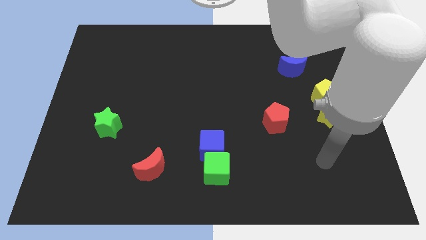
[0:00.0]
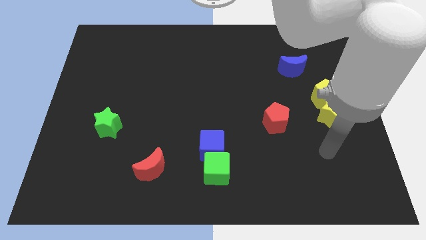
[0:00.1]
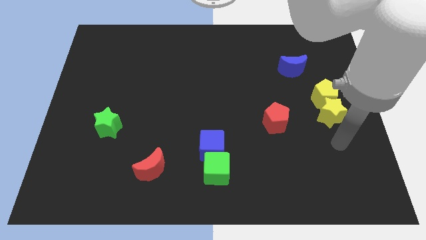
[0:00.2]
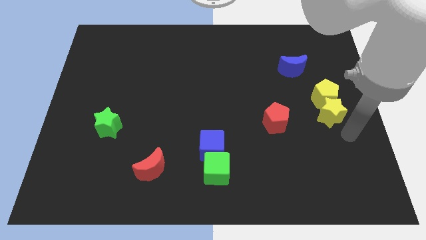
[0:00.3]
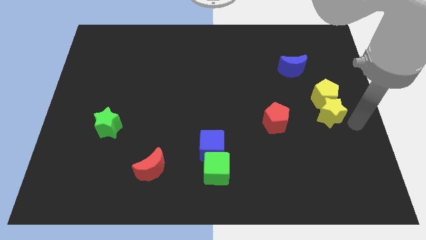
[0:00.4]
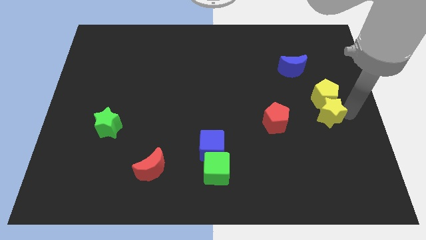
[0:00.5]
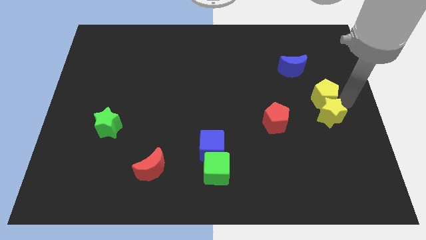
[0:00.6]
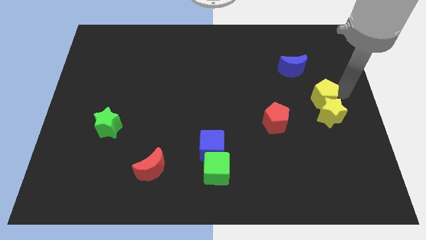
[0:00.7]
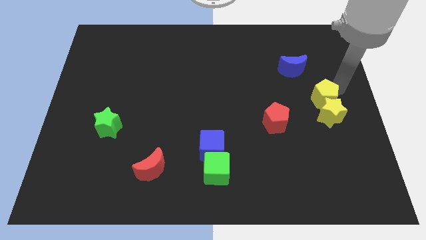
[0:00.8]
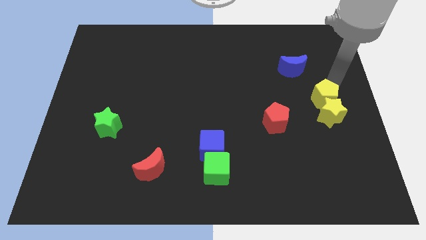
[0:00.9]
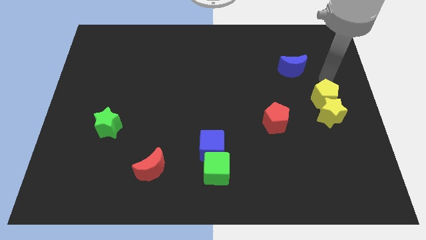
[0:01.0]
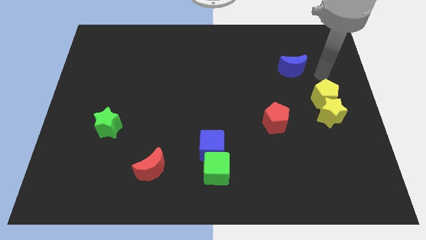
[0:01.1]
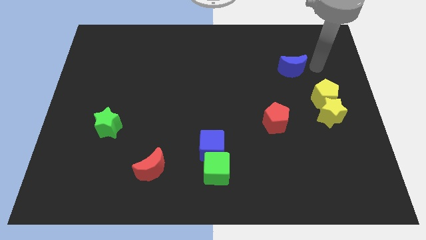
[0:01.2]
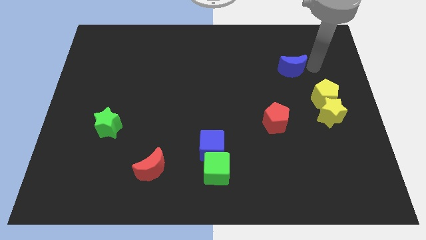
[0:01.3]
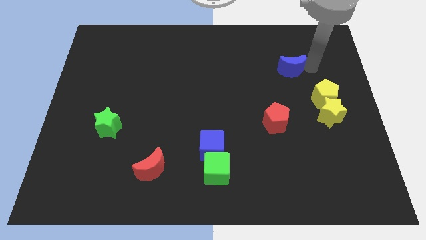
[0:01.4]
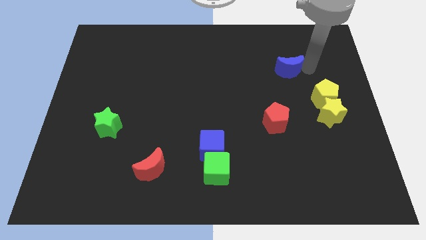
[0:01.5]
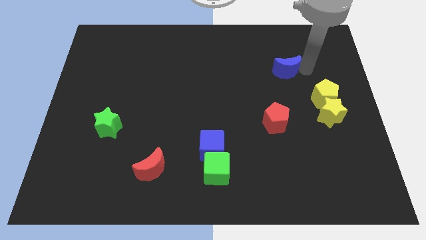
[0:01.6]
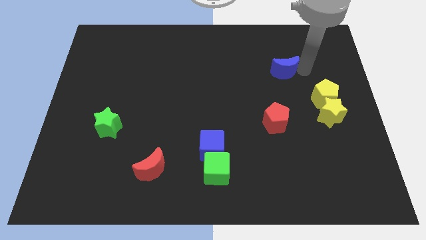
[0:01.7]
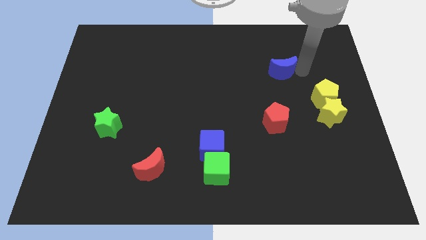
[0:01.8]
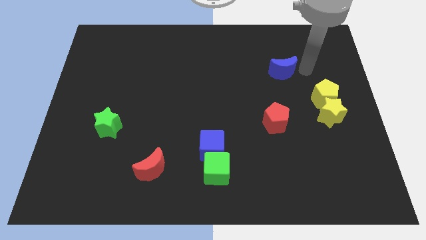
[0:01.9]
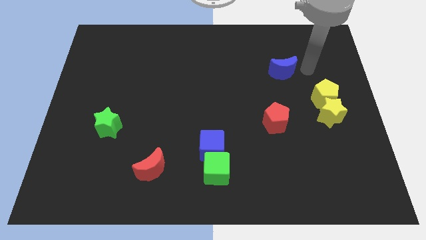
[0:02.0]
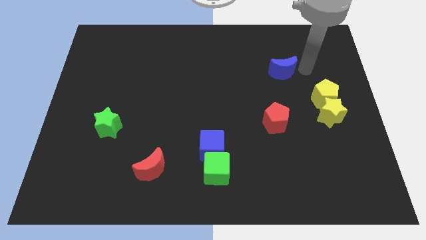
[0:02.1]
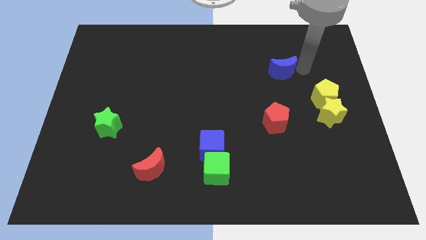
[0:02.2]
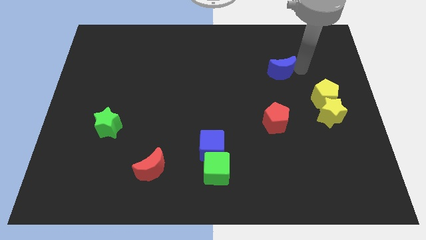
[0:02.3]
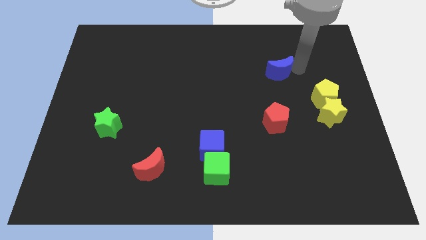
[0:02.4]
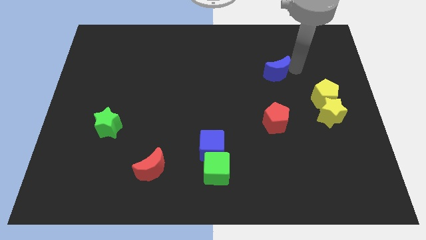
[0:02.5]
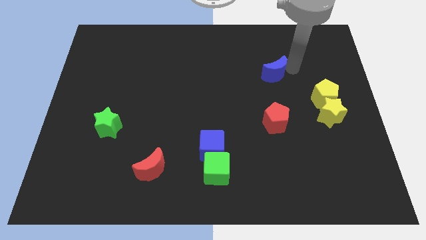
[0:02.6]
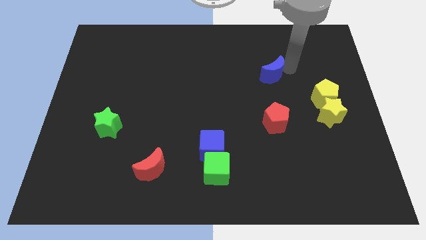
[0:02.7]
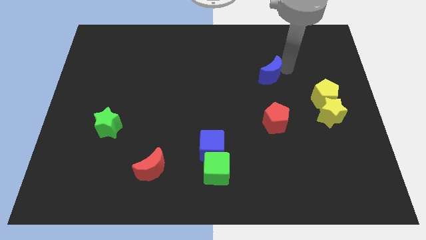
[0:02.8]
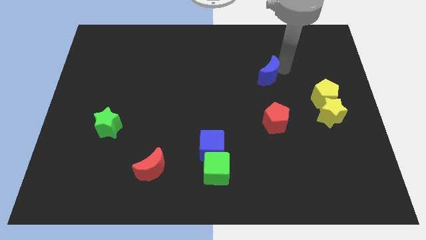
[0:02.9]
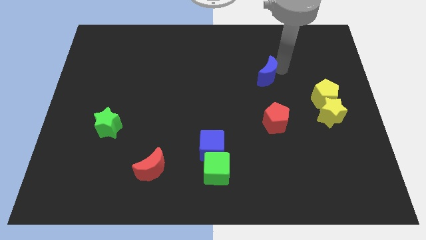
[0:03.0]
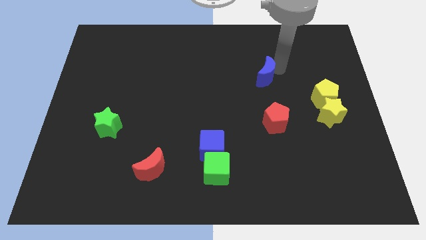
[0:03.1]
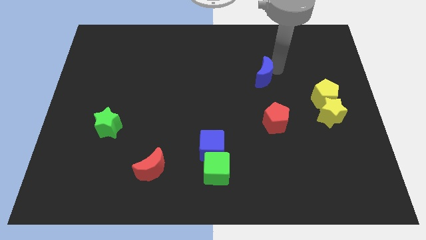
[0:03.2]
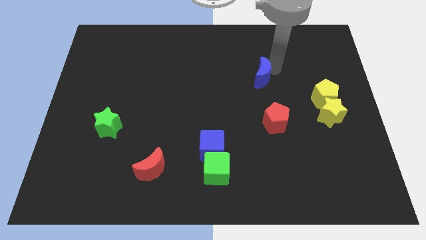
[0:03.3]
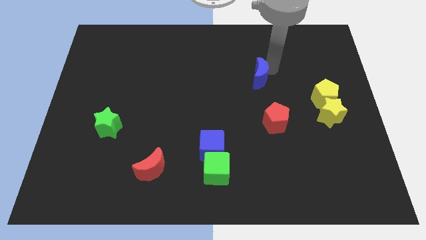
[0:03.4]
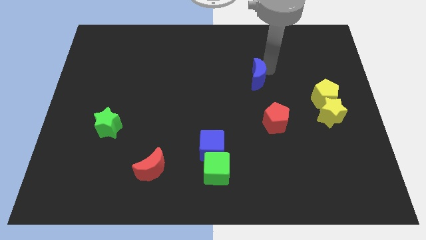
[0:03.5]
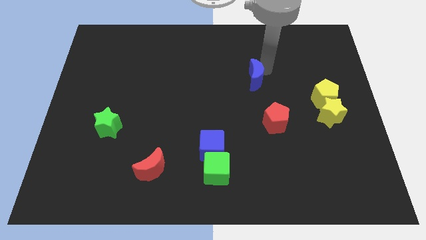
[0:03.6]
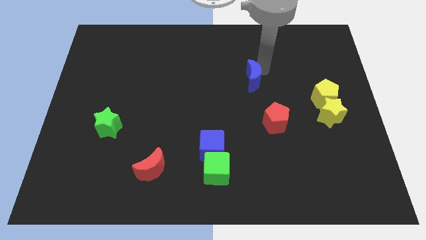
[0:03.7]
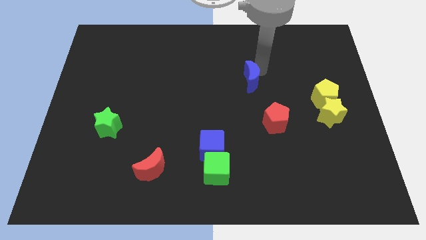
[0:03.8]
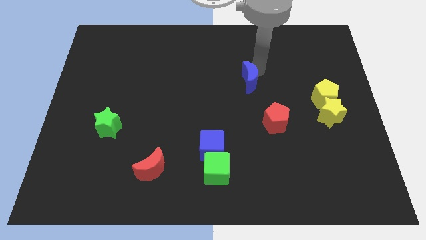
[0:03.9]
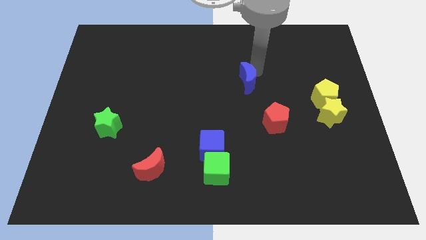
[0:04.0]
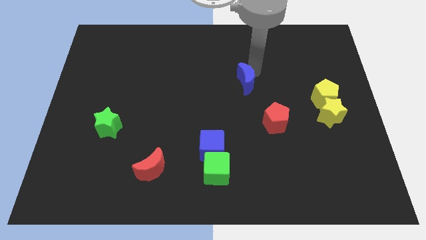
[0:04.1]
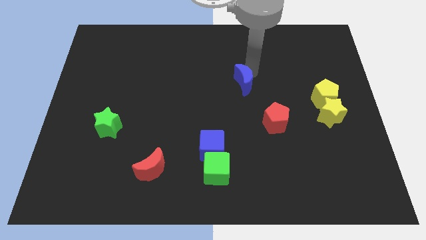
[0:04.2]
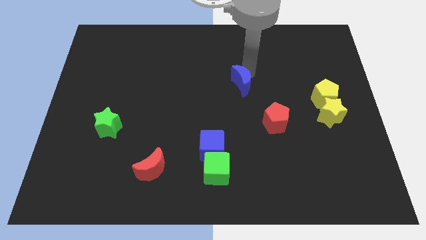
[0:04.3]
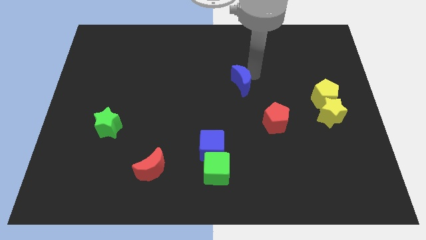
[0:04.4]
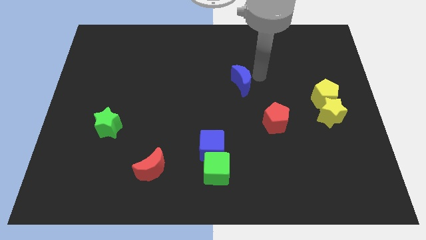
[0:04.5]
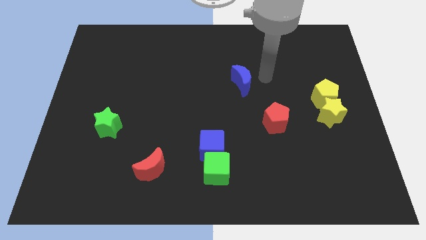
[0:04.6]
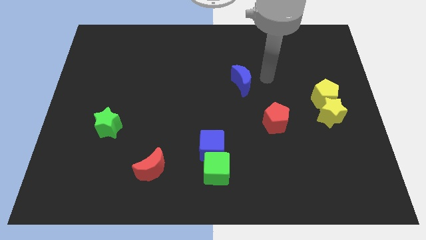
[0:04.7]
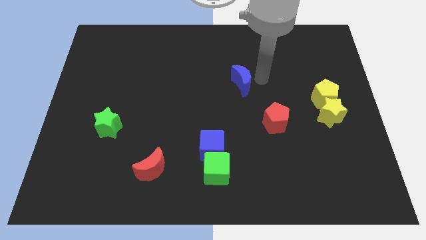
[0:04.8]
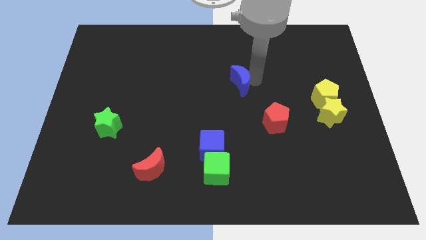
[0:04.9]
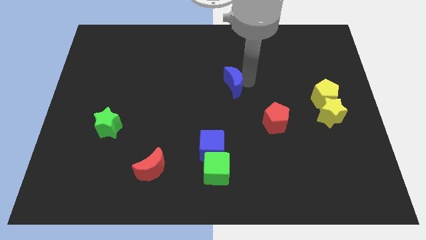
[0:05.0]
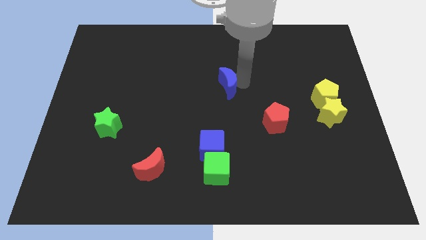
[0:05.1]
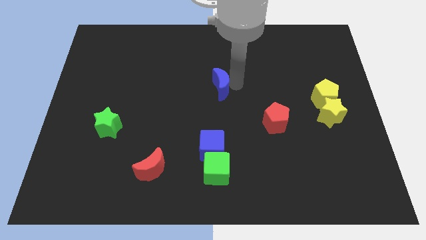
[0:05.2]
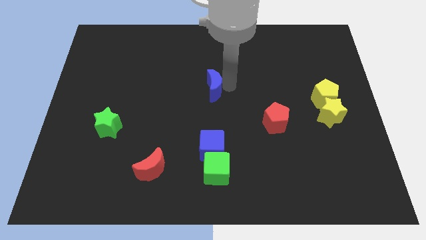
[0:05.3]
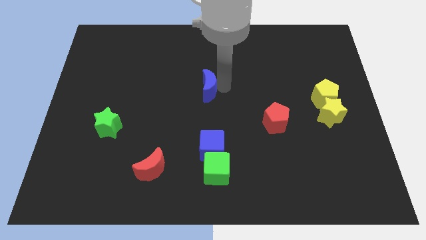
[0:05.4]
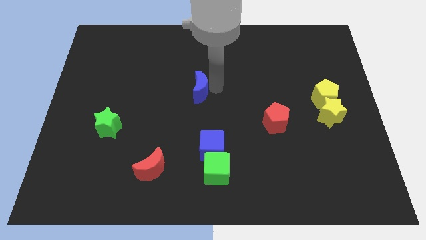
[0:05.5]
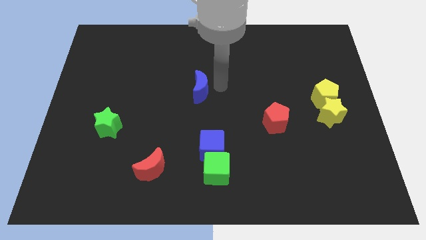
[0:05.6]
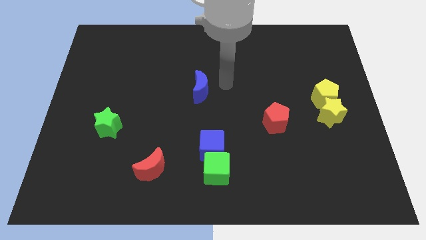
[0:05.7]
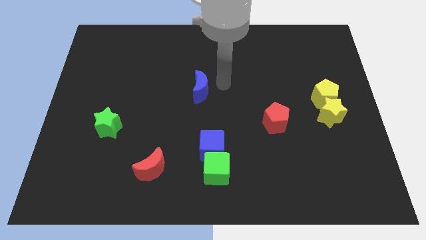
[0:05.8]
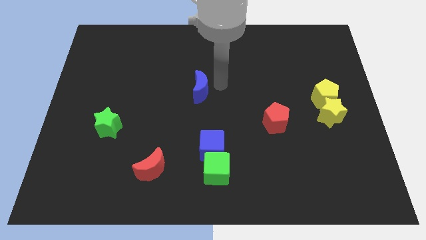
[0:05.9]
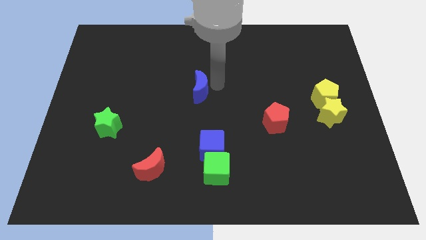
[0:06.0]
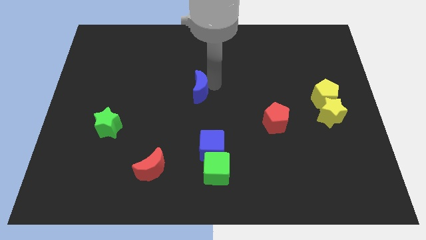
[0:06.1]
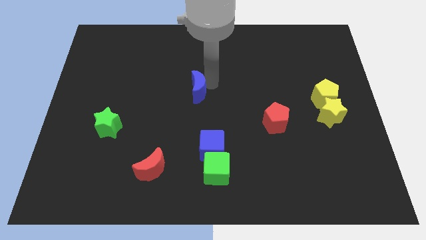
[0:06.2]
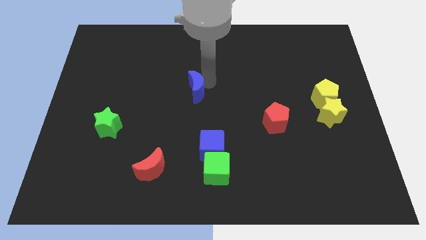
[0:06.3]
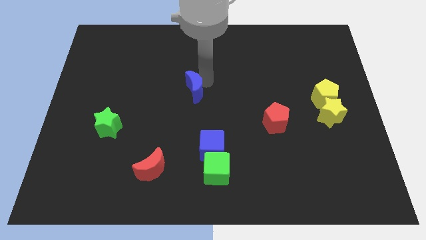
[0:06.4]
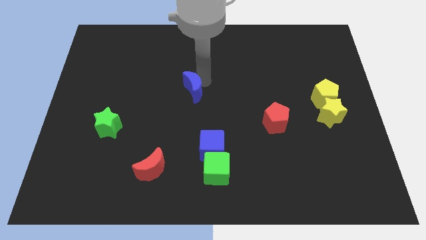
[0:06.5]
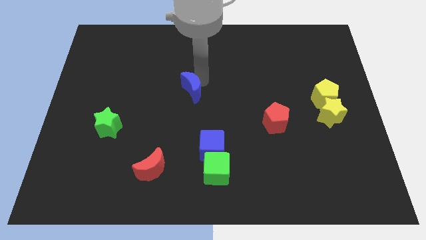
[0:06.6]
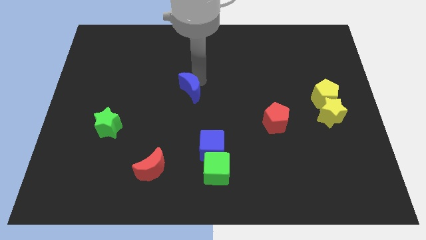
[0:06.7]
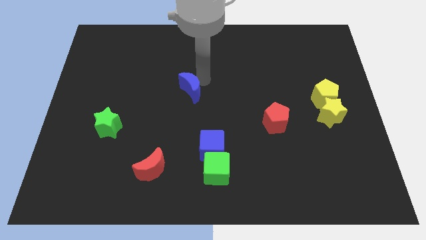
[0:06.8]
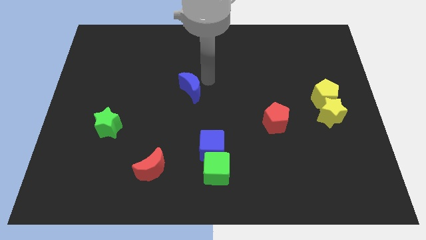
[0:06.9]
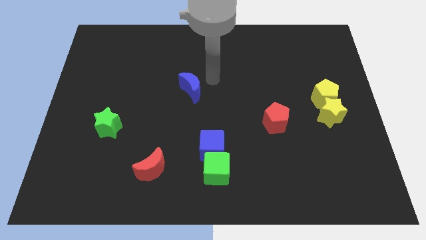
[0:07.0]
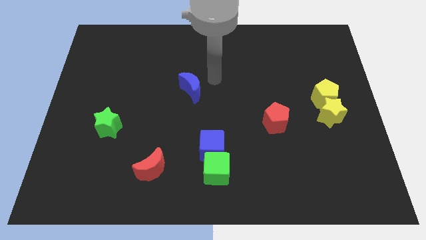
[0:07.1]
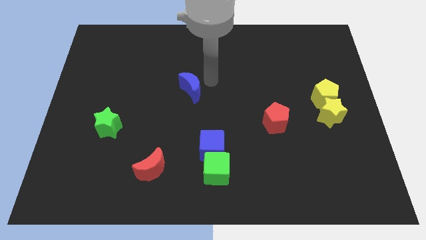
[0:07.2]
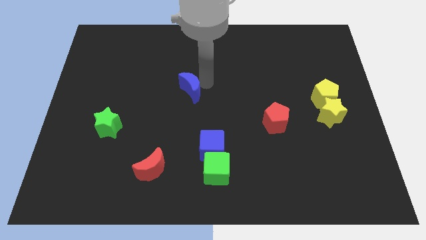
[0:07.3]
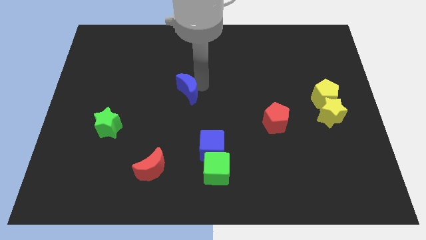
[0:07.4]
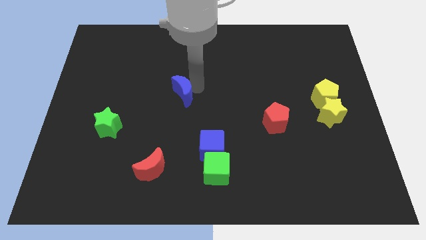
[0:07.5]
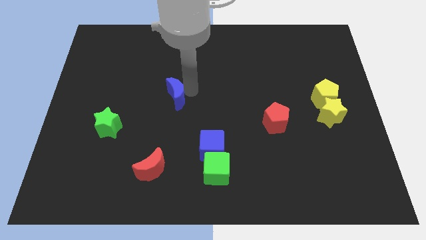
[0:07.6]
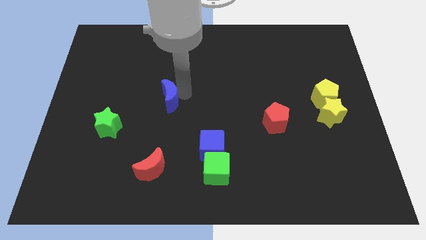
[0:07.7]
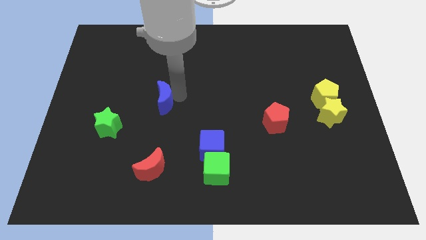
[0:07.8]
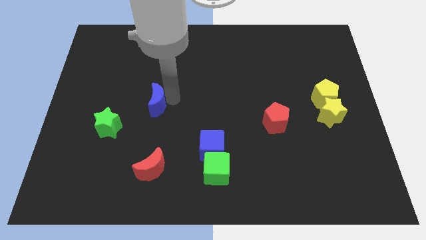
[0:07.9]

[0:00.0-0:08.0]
slide the blue moon to the top right side of the green star
